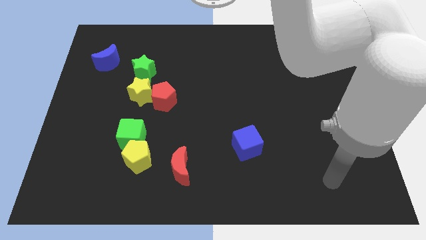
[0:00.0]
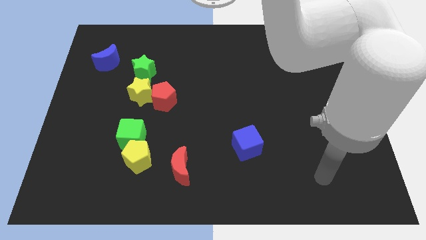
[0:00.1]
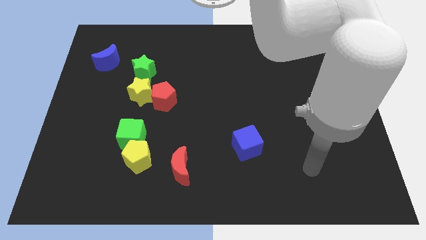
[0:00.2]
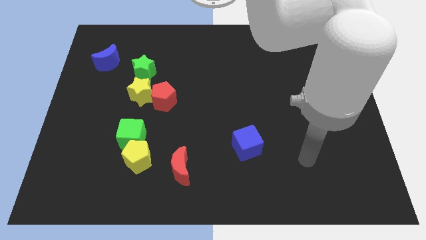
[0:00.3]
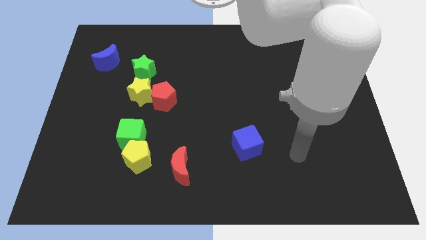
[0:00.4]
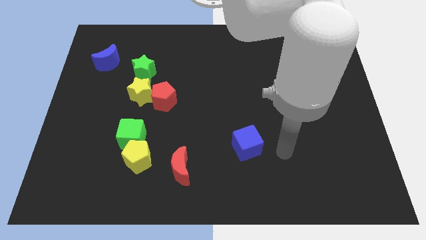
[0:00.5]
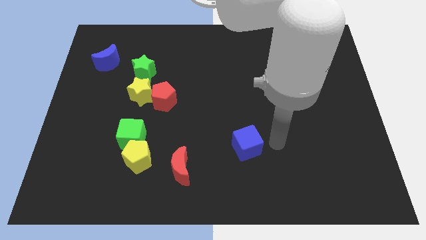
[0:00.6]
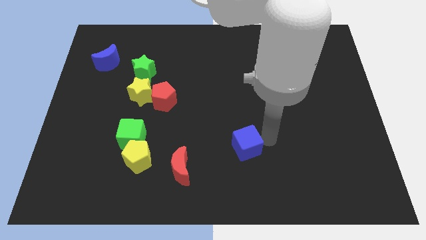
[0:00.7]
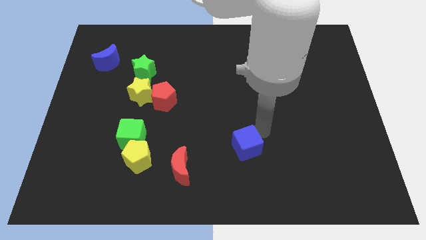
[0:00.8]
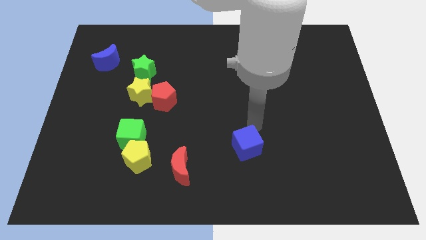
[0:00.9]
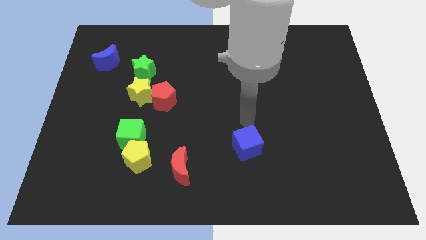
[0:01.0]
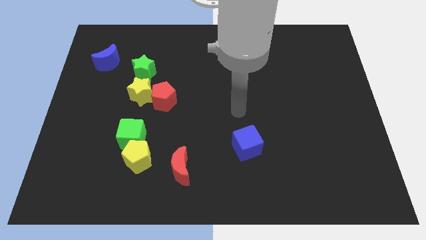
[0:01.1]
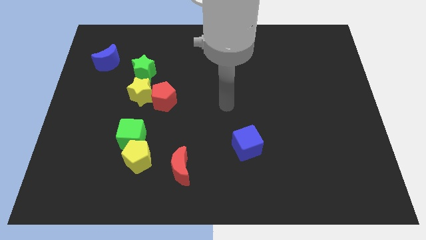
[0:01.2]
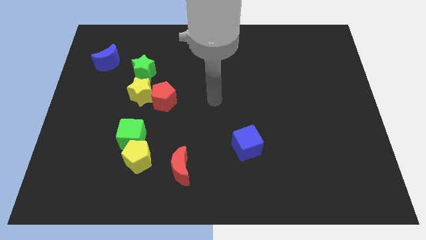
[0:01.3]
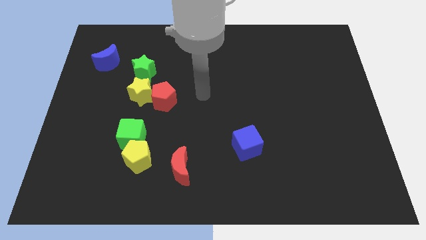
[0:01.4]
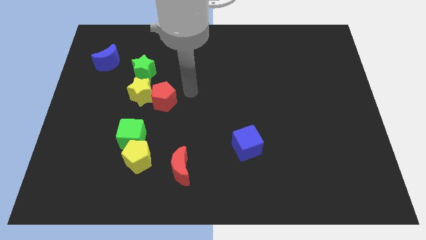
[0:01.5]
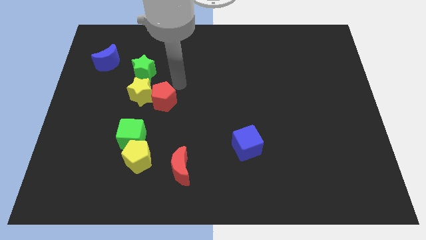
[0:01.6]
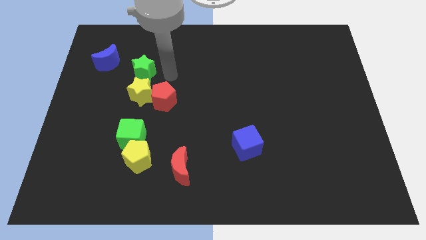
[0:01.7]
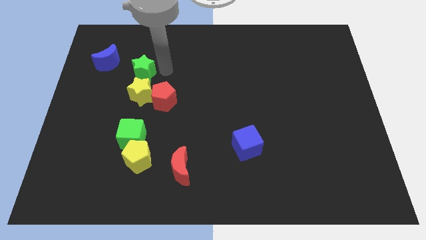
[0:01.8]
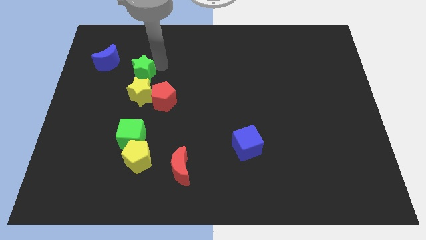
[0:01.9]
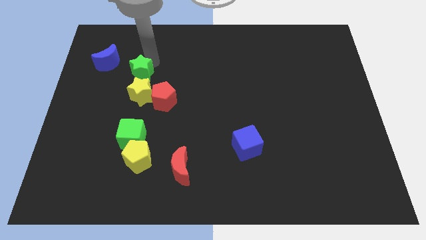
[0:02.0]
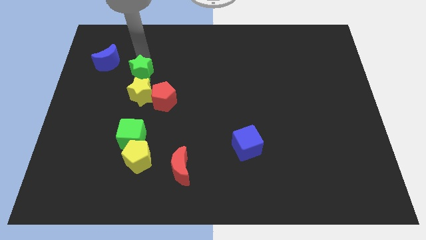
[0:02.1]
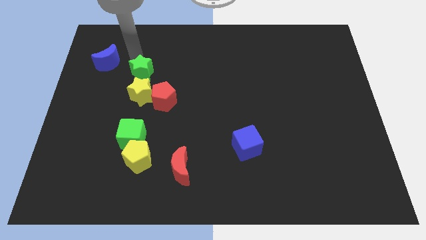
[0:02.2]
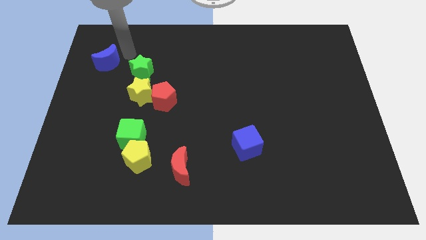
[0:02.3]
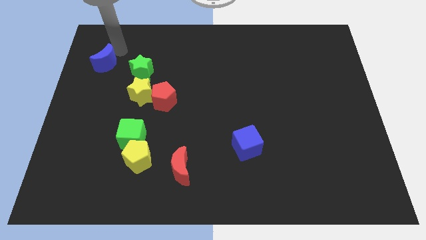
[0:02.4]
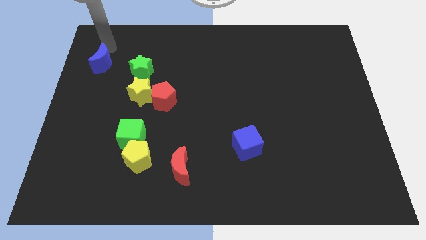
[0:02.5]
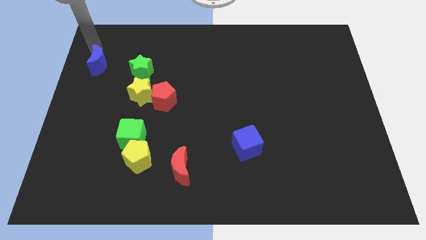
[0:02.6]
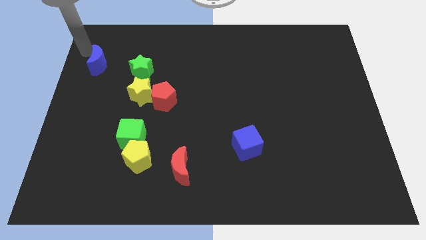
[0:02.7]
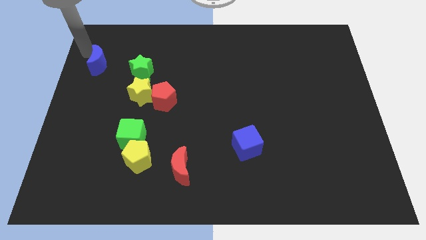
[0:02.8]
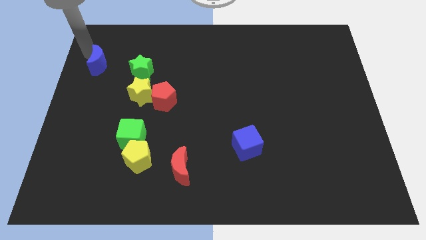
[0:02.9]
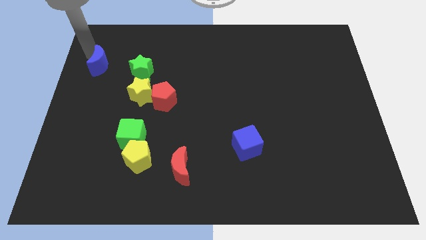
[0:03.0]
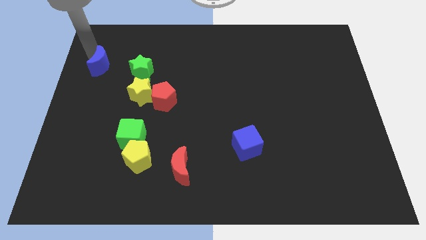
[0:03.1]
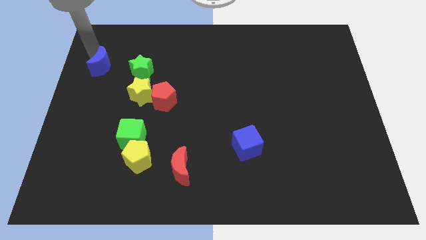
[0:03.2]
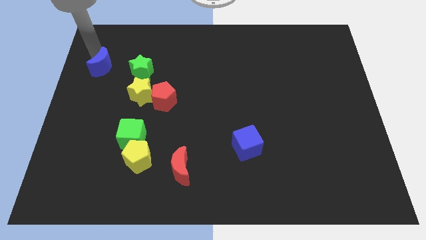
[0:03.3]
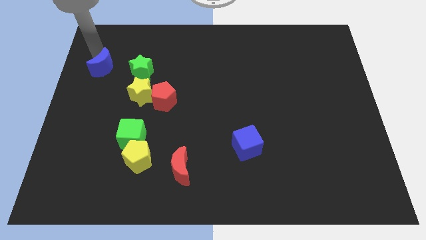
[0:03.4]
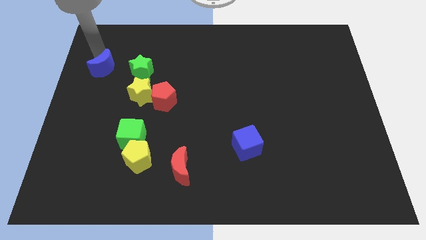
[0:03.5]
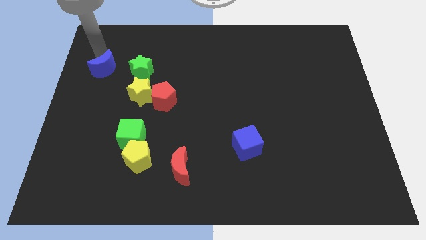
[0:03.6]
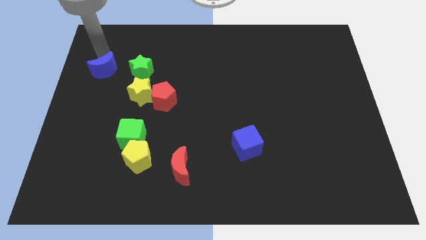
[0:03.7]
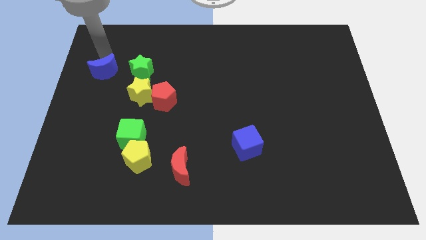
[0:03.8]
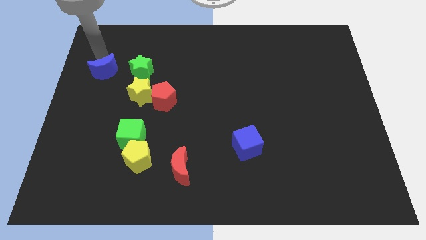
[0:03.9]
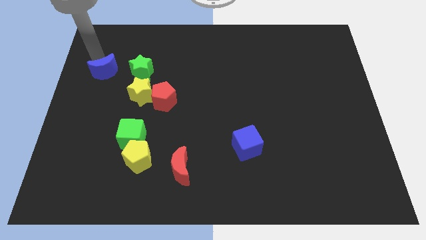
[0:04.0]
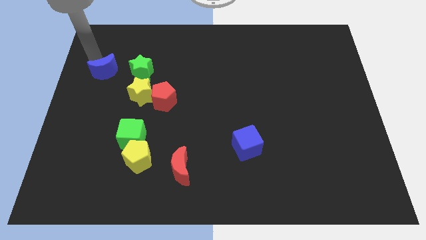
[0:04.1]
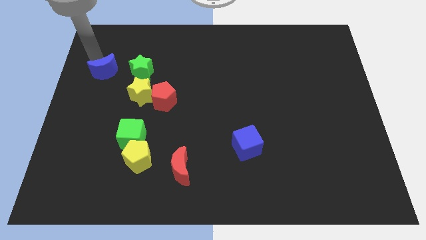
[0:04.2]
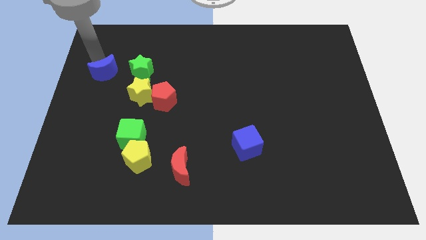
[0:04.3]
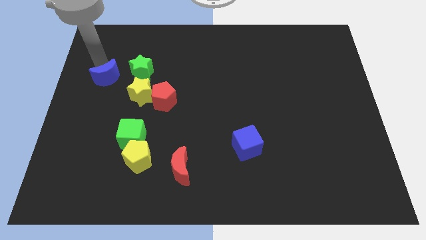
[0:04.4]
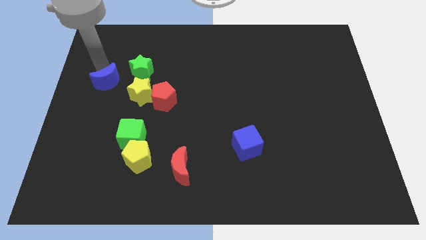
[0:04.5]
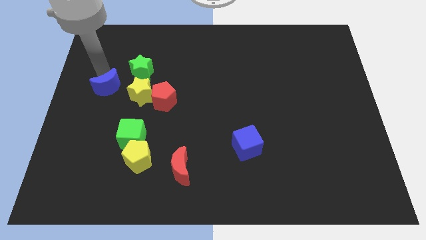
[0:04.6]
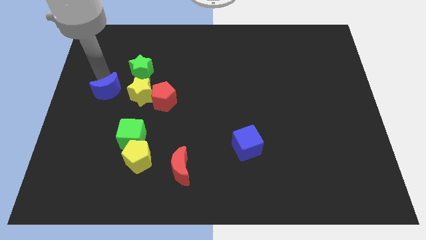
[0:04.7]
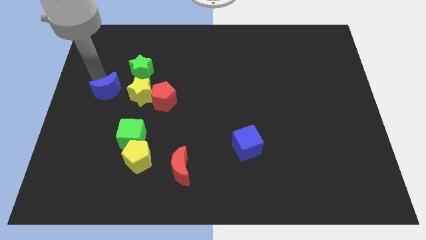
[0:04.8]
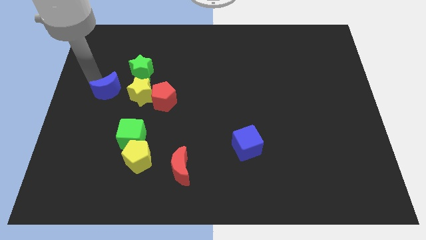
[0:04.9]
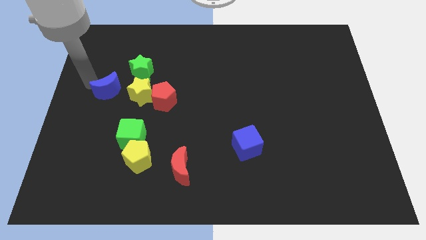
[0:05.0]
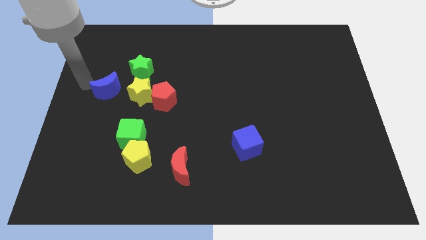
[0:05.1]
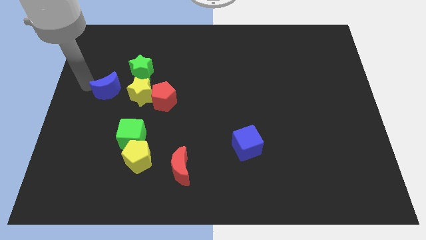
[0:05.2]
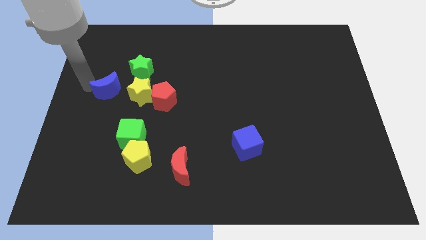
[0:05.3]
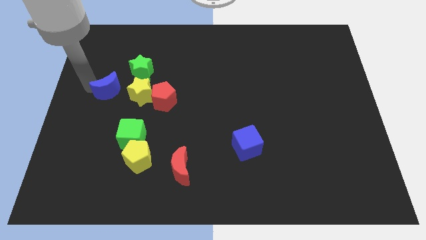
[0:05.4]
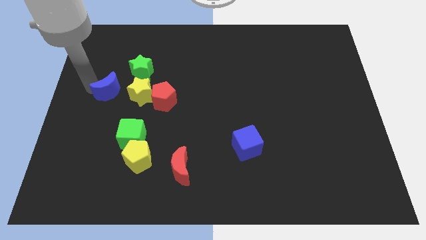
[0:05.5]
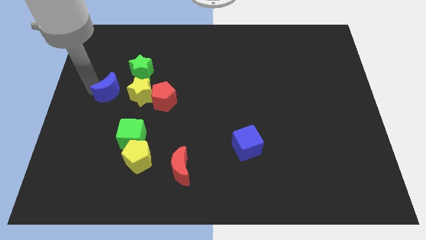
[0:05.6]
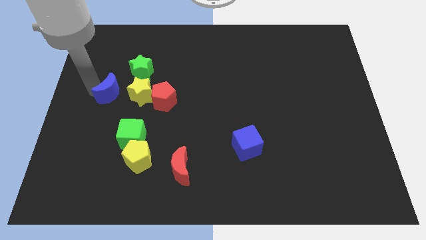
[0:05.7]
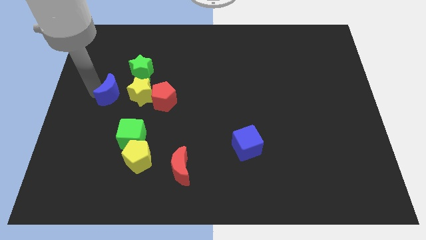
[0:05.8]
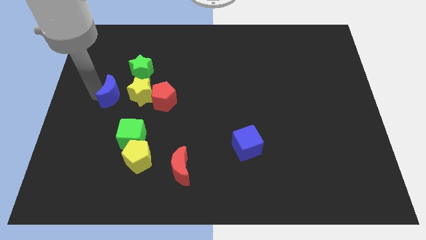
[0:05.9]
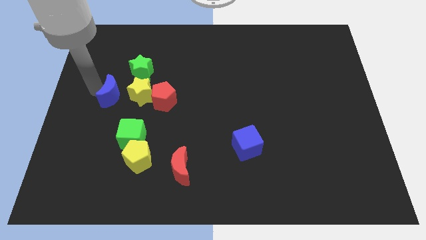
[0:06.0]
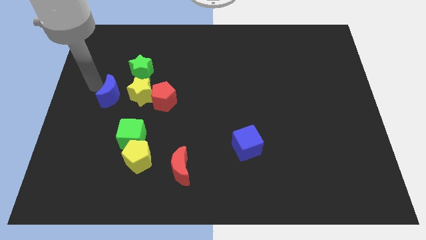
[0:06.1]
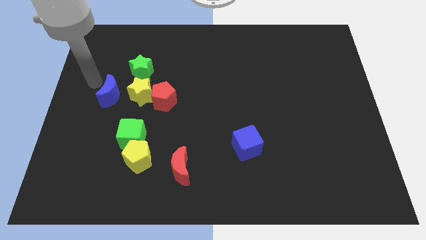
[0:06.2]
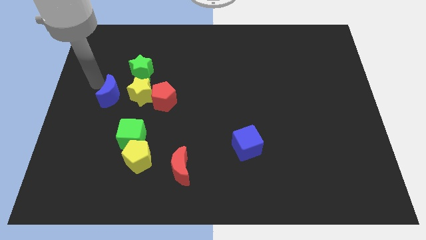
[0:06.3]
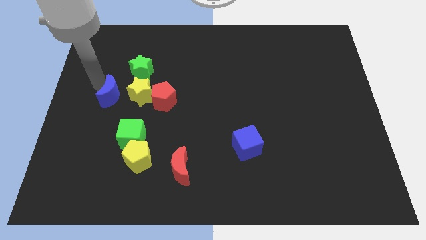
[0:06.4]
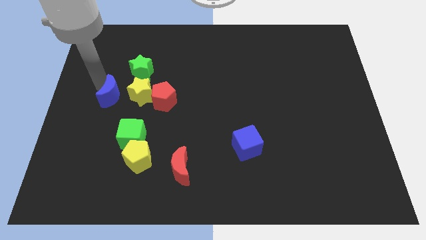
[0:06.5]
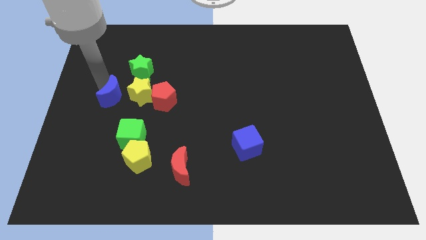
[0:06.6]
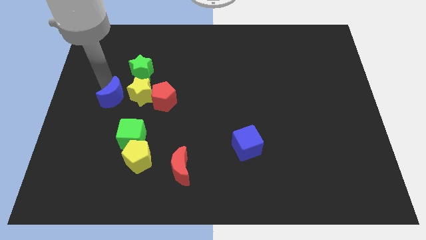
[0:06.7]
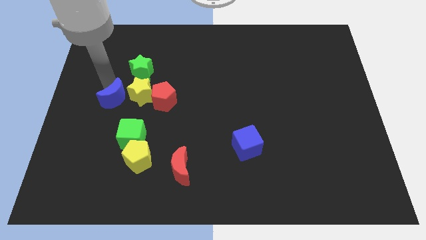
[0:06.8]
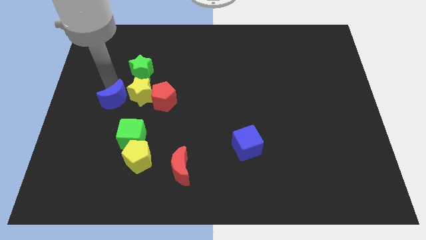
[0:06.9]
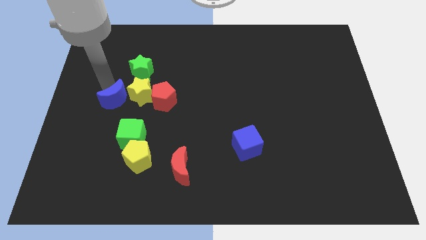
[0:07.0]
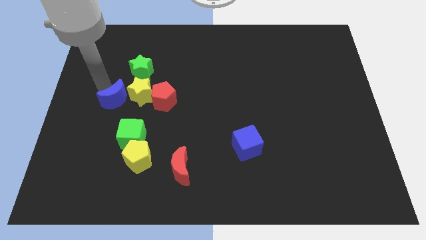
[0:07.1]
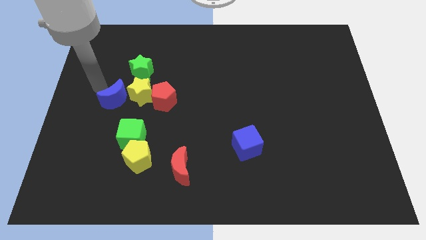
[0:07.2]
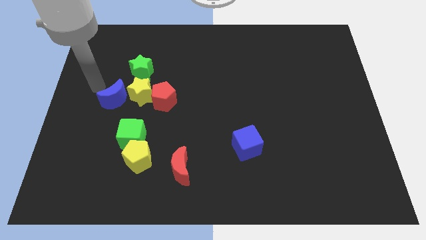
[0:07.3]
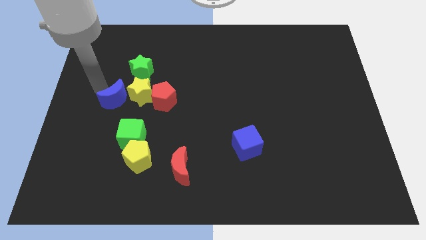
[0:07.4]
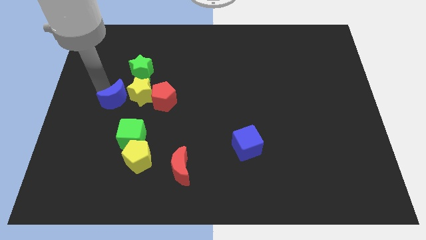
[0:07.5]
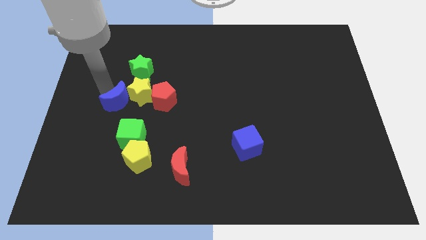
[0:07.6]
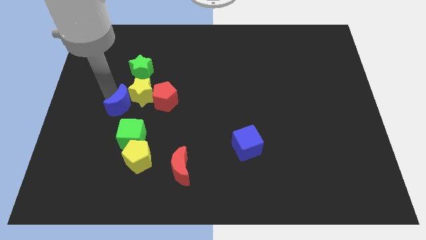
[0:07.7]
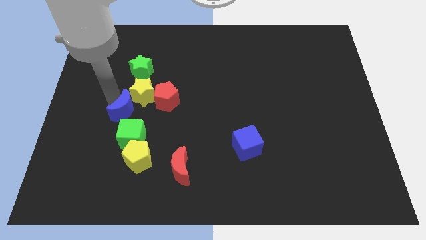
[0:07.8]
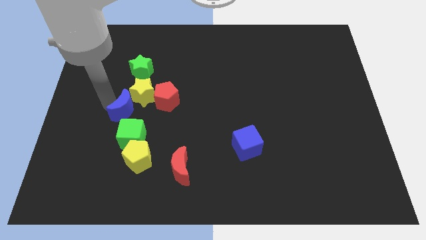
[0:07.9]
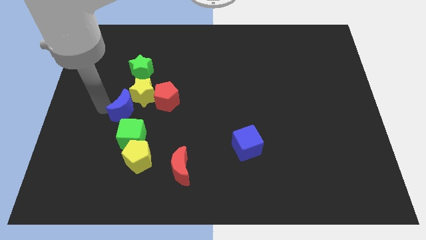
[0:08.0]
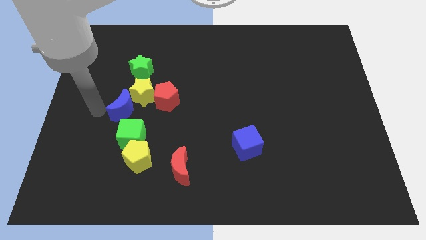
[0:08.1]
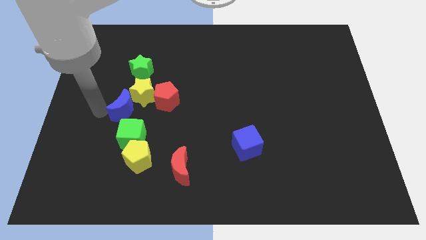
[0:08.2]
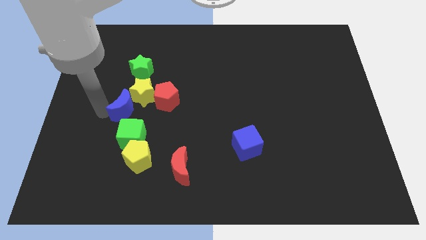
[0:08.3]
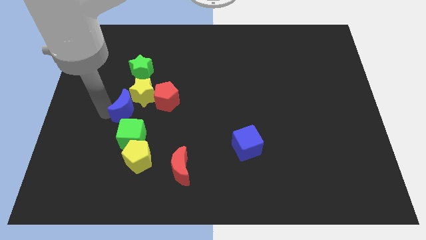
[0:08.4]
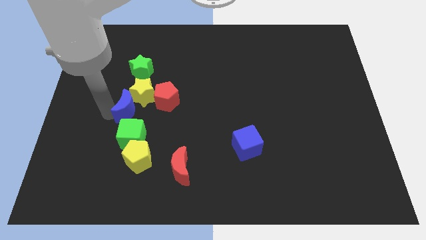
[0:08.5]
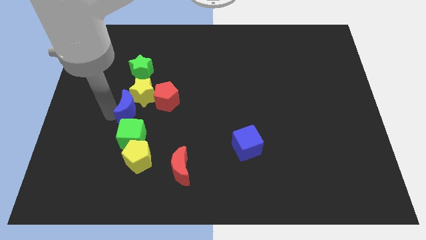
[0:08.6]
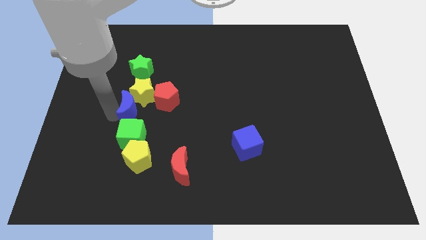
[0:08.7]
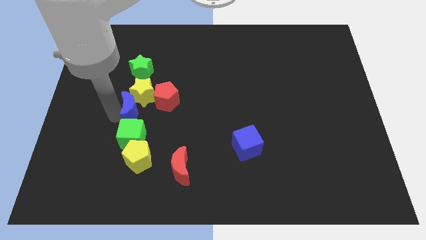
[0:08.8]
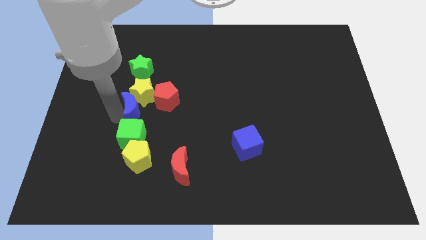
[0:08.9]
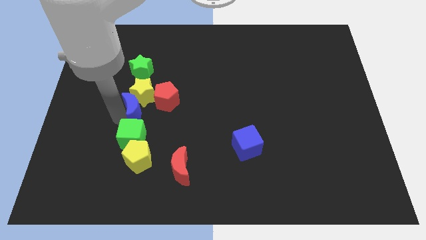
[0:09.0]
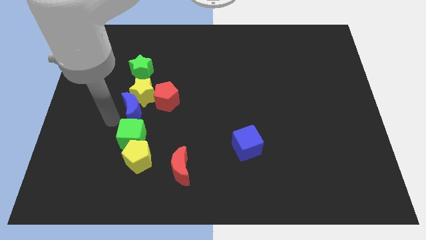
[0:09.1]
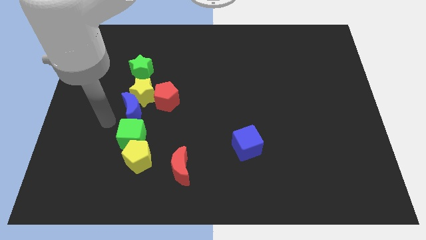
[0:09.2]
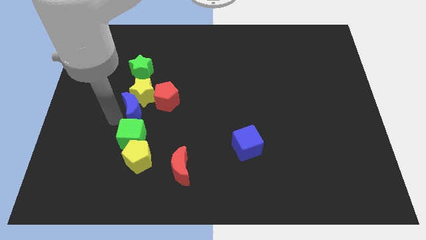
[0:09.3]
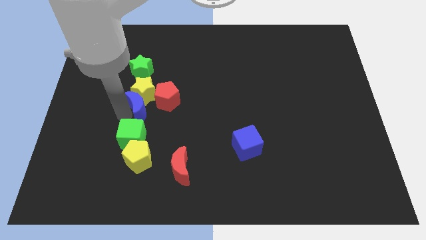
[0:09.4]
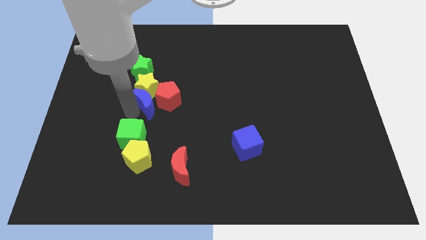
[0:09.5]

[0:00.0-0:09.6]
put the blue moon to the red pentagon
